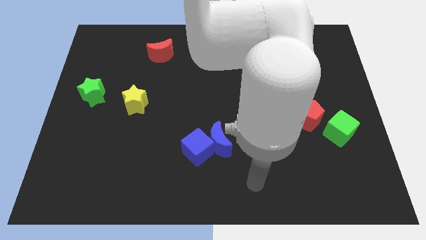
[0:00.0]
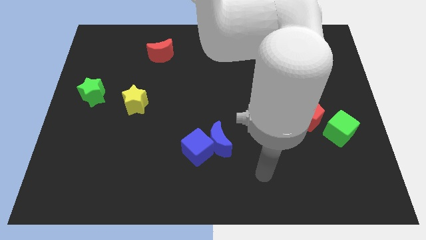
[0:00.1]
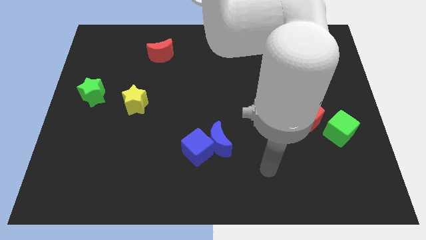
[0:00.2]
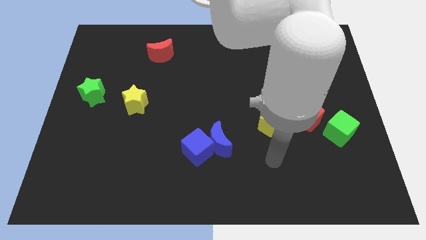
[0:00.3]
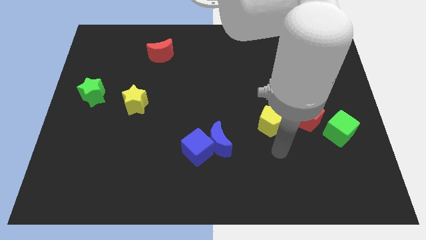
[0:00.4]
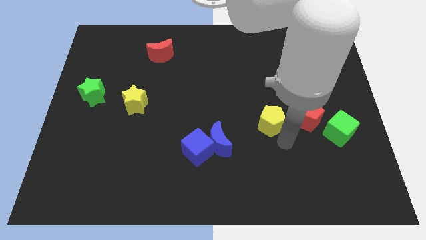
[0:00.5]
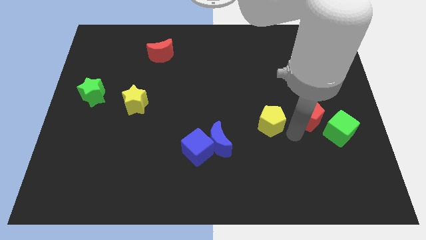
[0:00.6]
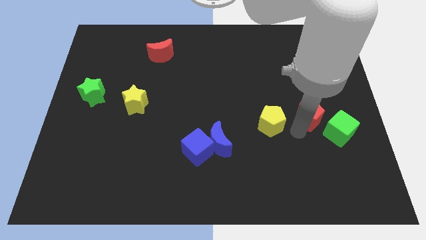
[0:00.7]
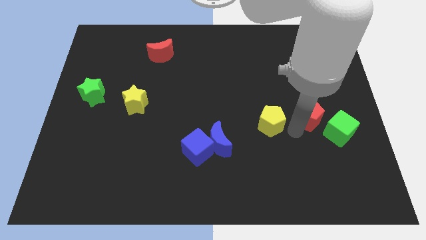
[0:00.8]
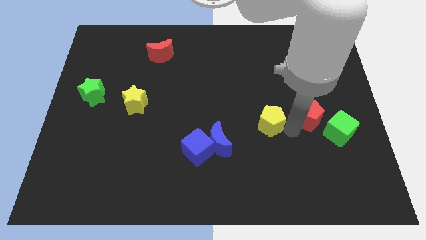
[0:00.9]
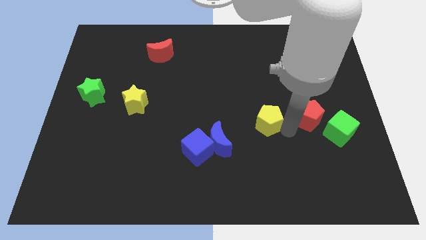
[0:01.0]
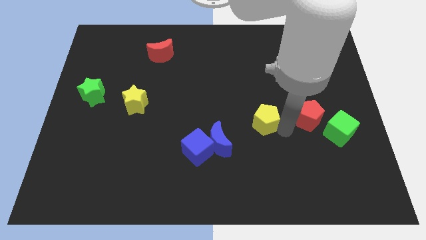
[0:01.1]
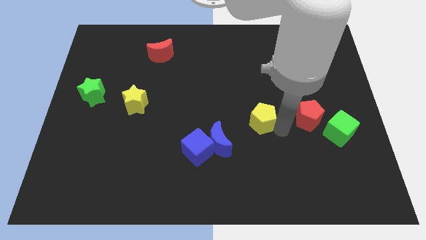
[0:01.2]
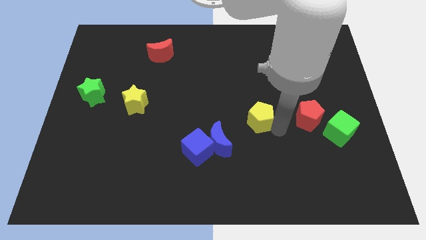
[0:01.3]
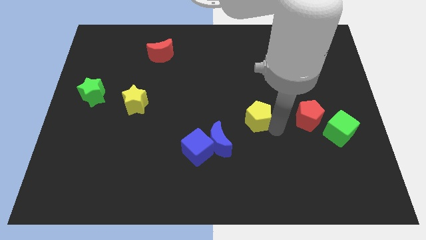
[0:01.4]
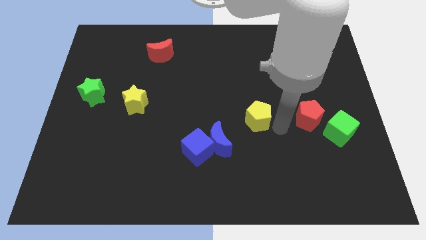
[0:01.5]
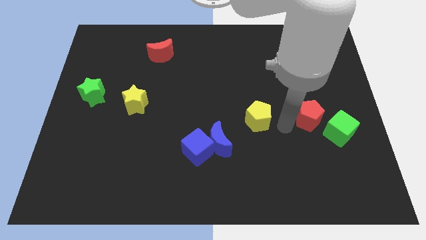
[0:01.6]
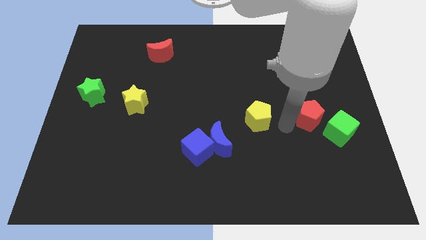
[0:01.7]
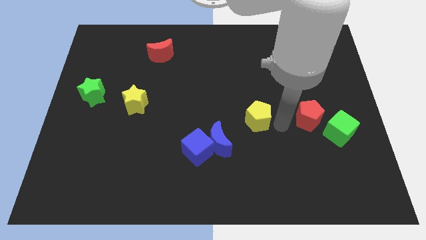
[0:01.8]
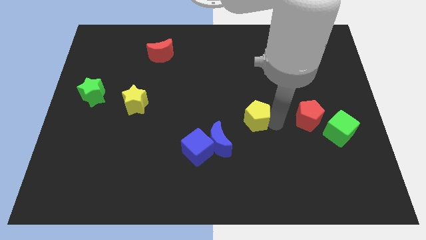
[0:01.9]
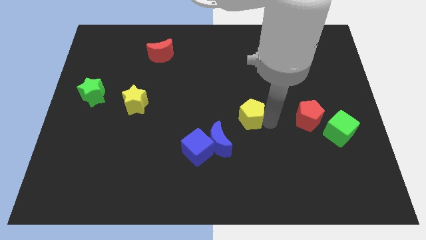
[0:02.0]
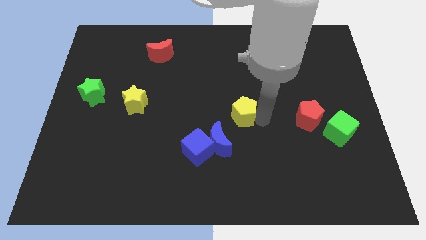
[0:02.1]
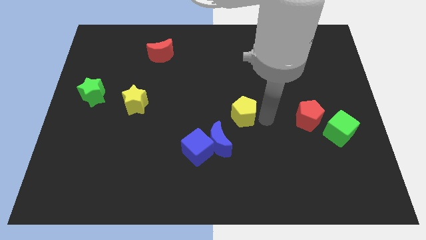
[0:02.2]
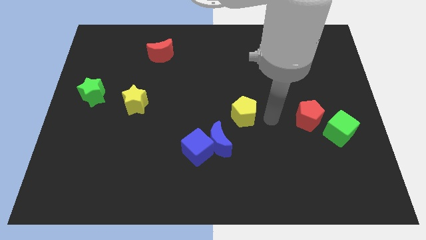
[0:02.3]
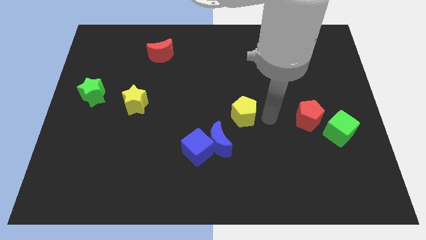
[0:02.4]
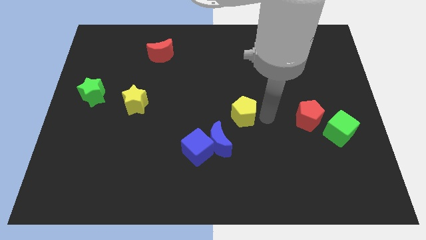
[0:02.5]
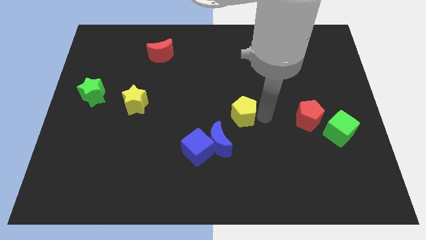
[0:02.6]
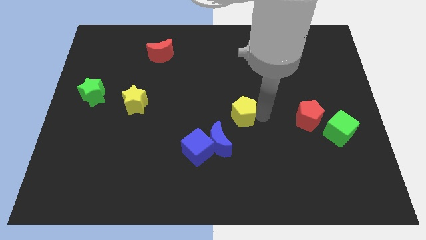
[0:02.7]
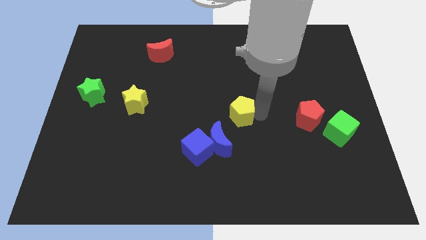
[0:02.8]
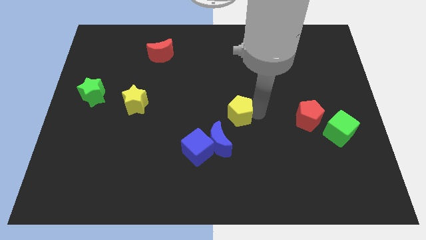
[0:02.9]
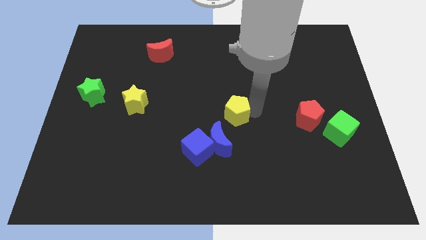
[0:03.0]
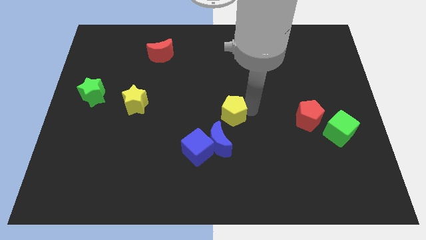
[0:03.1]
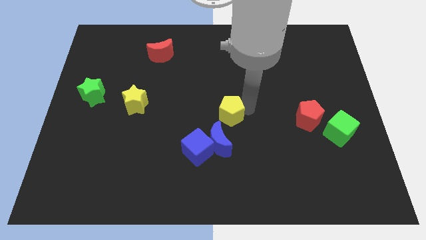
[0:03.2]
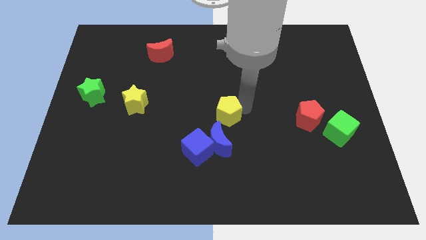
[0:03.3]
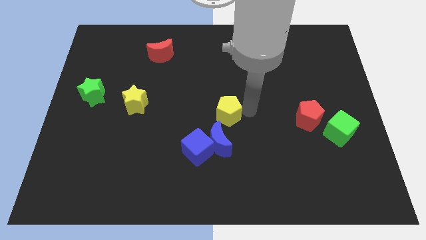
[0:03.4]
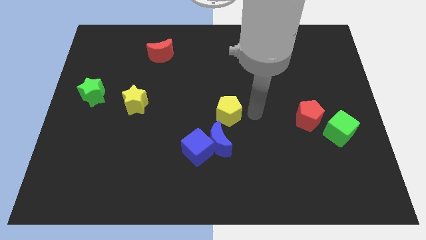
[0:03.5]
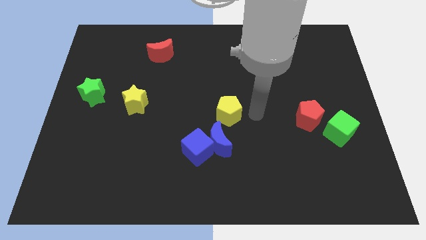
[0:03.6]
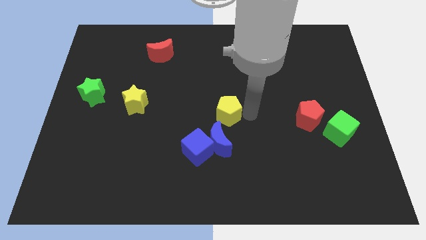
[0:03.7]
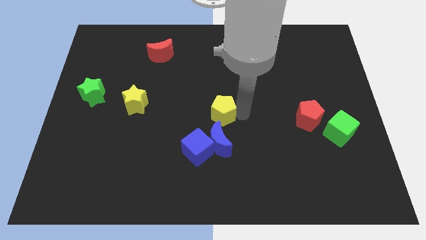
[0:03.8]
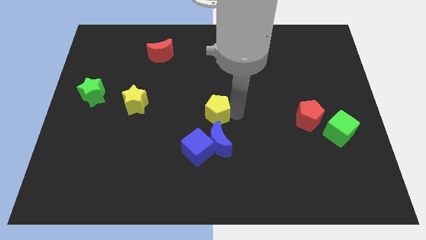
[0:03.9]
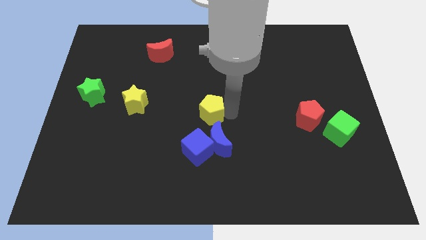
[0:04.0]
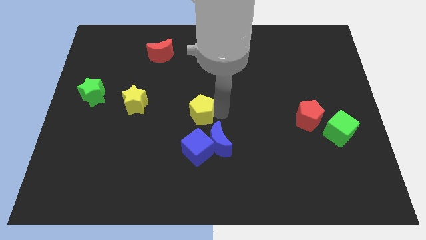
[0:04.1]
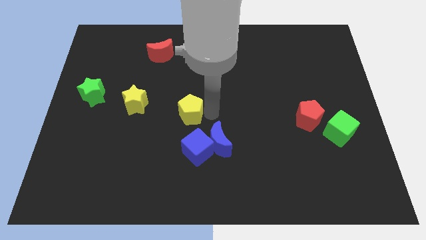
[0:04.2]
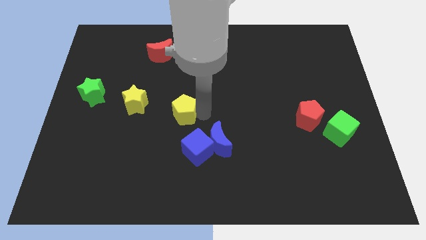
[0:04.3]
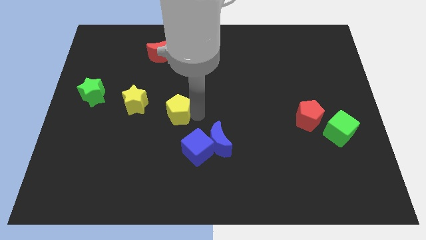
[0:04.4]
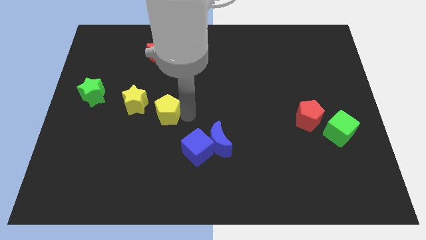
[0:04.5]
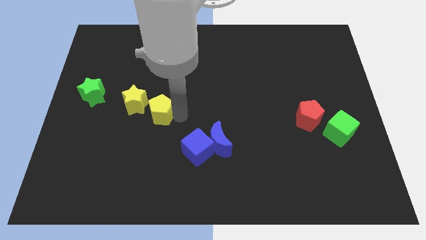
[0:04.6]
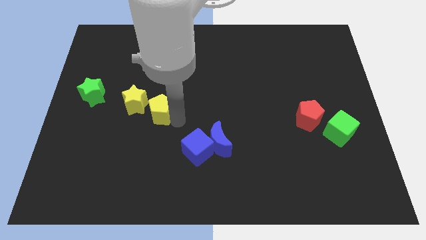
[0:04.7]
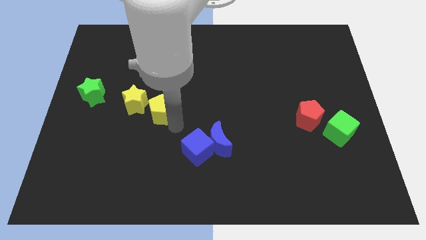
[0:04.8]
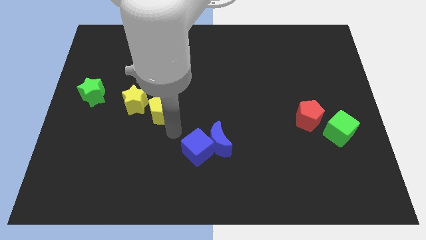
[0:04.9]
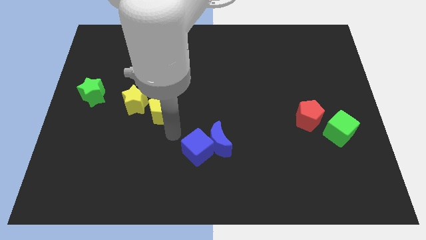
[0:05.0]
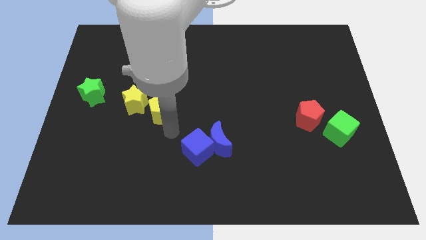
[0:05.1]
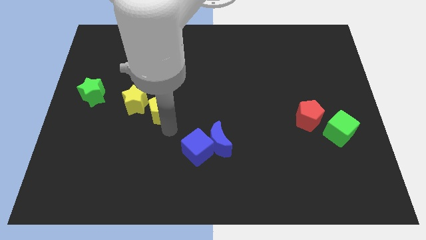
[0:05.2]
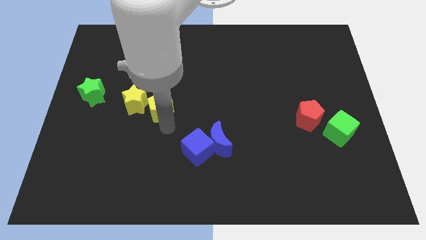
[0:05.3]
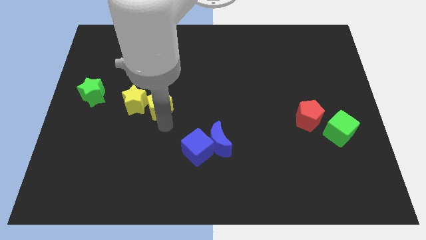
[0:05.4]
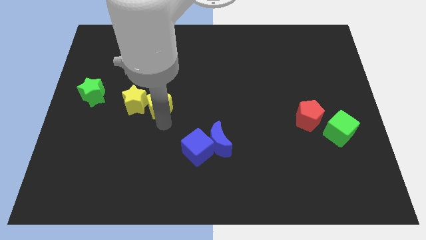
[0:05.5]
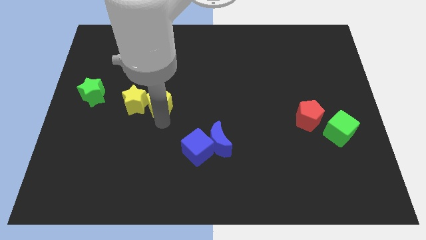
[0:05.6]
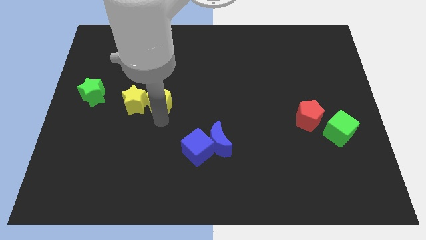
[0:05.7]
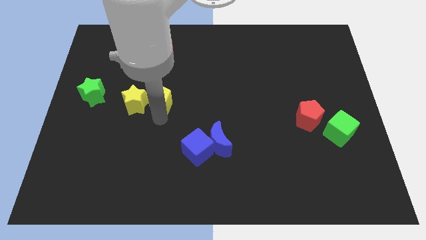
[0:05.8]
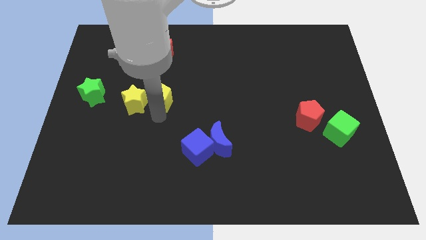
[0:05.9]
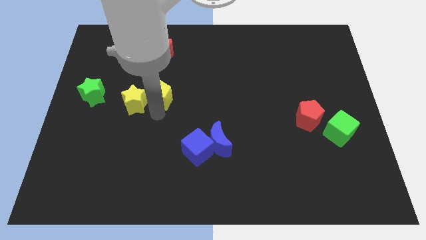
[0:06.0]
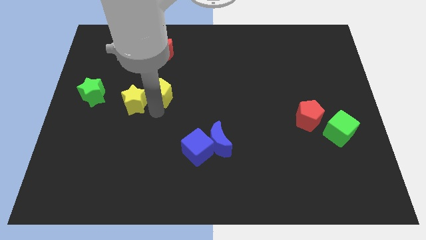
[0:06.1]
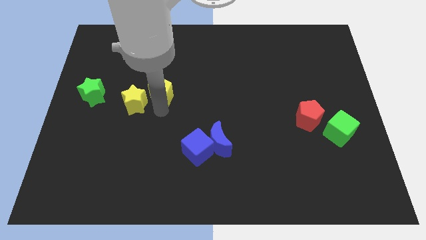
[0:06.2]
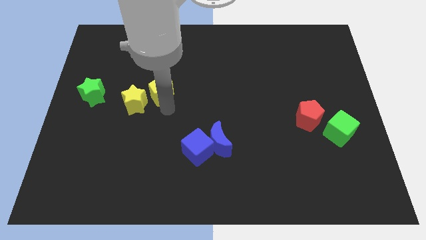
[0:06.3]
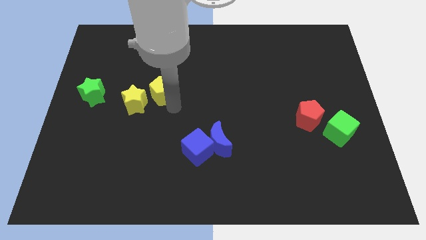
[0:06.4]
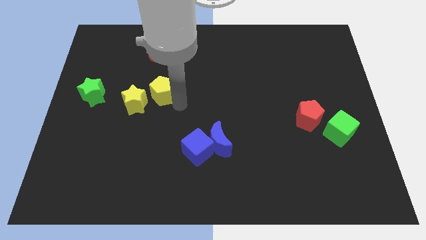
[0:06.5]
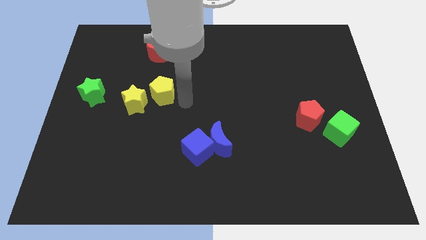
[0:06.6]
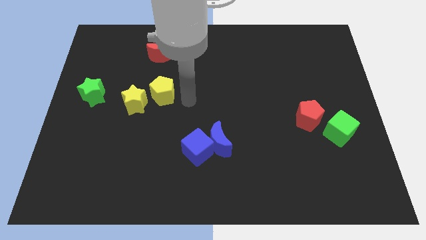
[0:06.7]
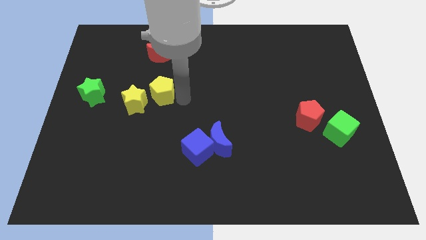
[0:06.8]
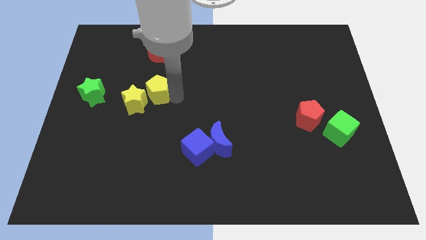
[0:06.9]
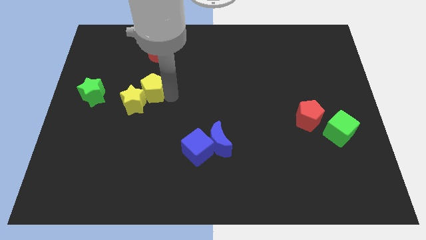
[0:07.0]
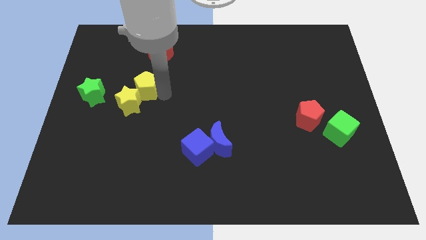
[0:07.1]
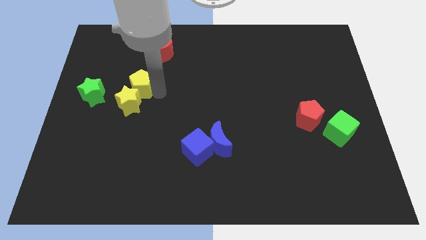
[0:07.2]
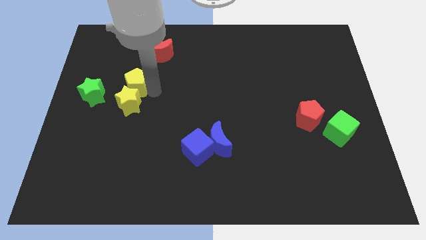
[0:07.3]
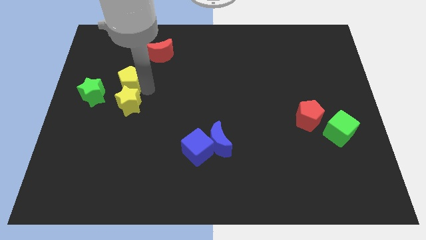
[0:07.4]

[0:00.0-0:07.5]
push the yellow pentagon diagonally up and to the right of the green star
